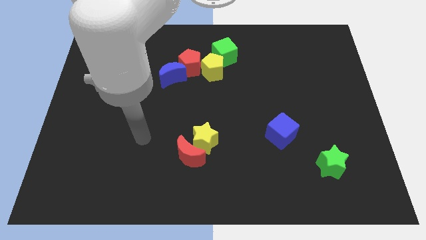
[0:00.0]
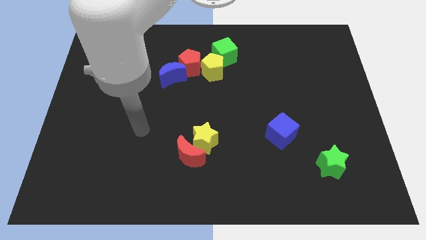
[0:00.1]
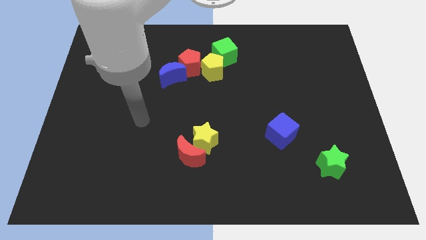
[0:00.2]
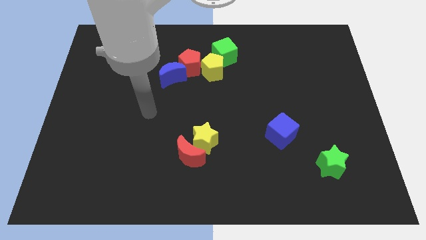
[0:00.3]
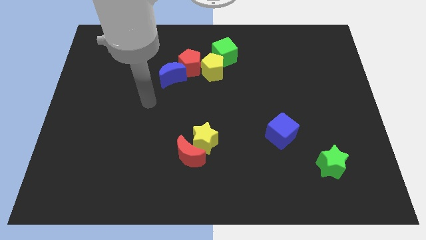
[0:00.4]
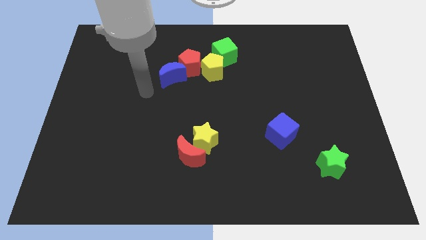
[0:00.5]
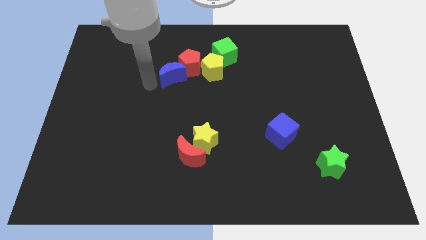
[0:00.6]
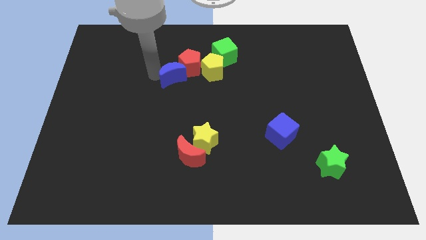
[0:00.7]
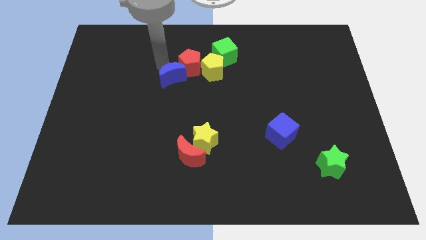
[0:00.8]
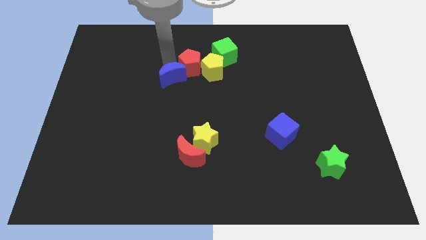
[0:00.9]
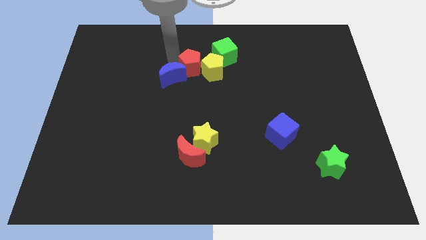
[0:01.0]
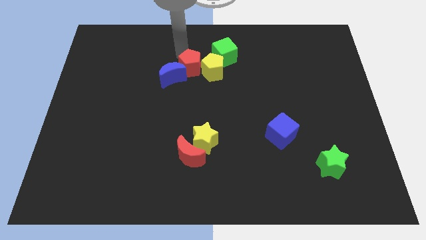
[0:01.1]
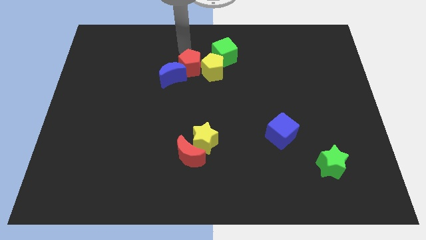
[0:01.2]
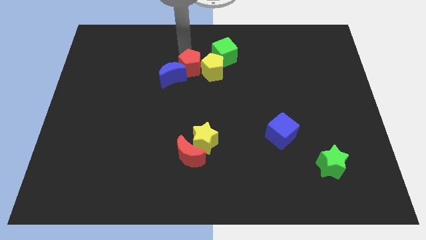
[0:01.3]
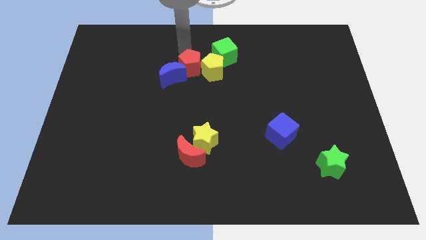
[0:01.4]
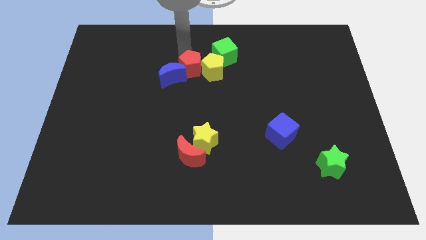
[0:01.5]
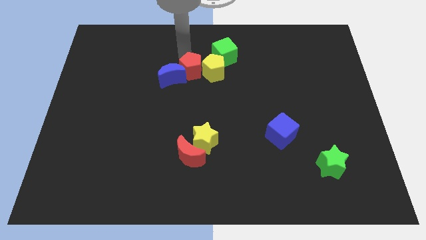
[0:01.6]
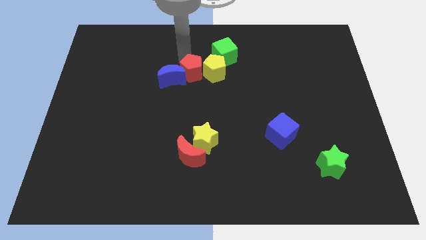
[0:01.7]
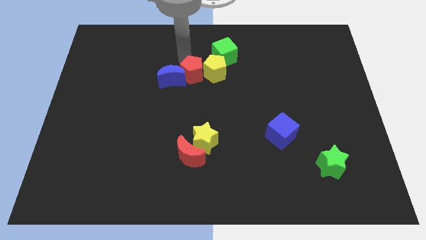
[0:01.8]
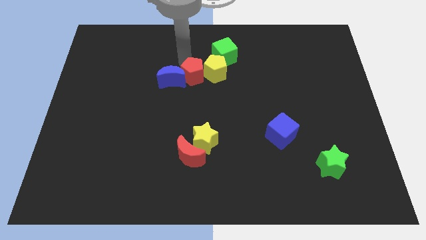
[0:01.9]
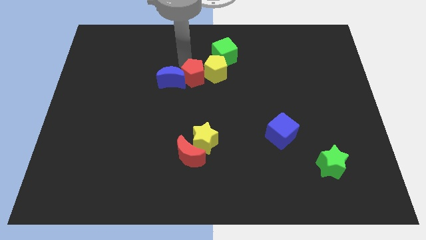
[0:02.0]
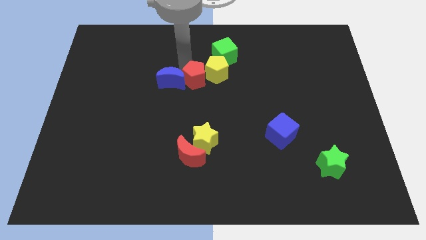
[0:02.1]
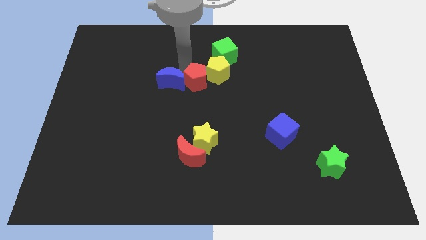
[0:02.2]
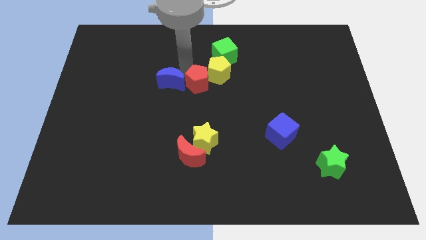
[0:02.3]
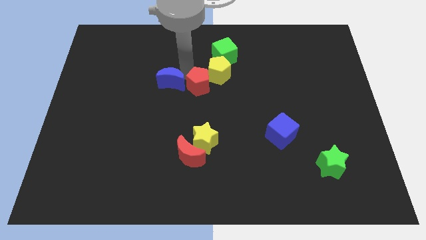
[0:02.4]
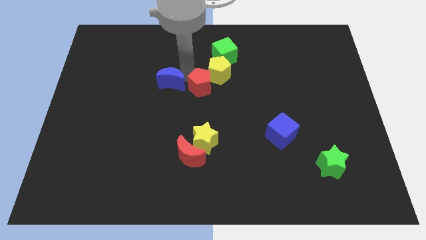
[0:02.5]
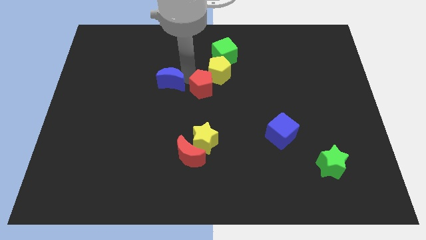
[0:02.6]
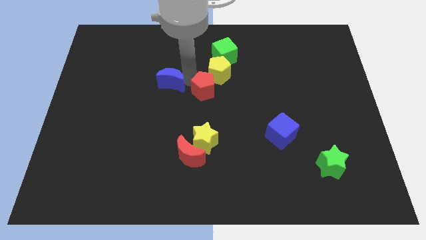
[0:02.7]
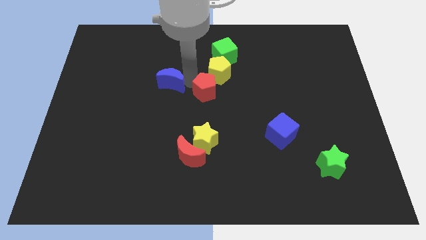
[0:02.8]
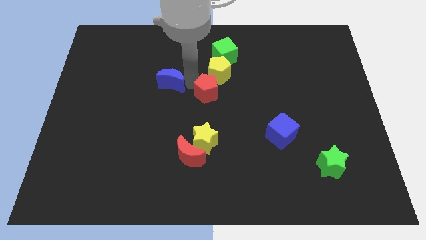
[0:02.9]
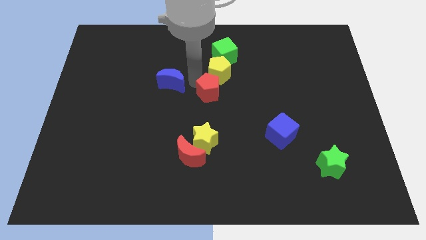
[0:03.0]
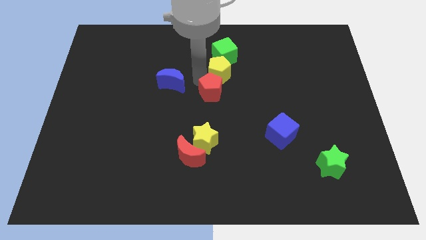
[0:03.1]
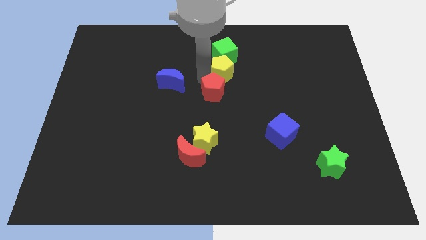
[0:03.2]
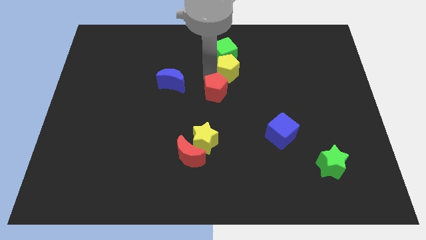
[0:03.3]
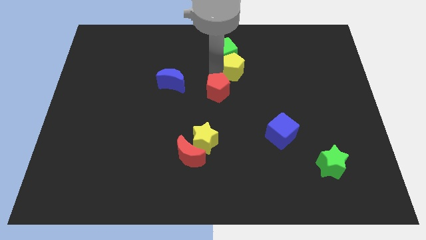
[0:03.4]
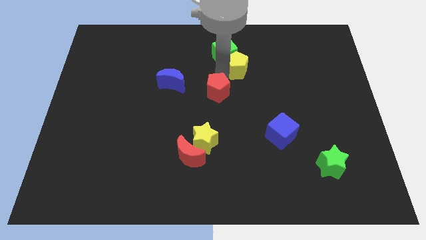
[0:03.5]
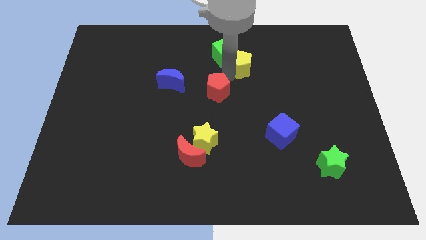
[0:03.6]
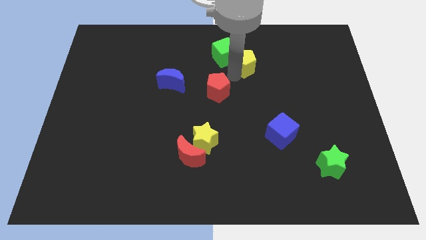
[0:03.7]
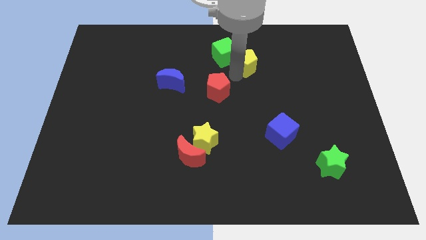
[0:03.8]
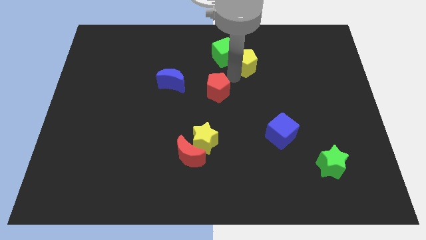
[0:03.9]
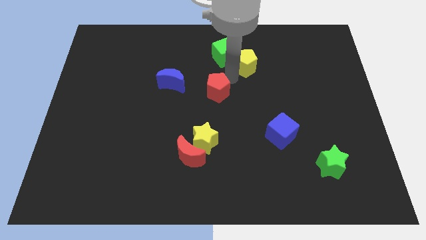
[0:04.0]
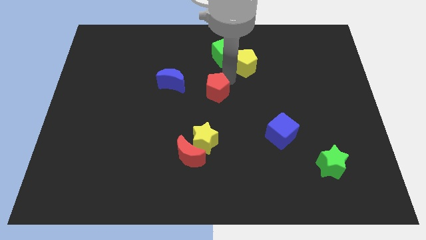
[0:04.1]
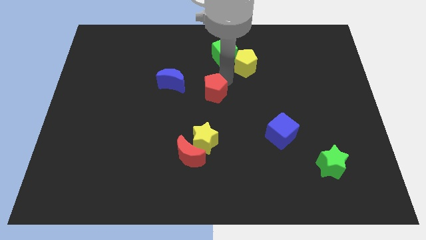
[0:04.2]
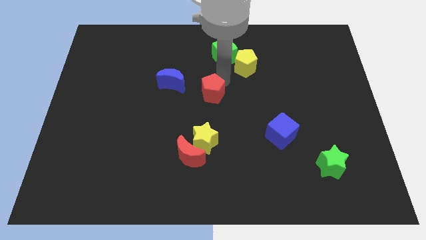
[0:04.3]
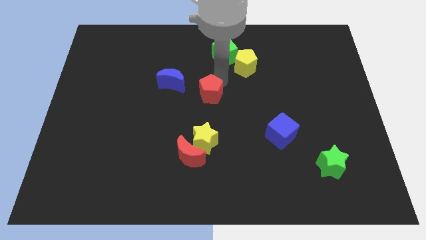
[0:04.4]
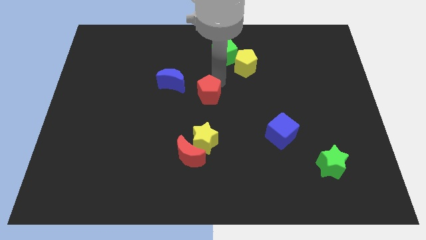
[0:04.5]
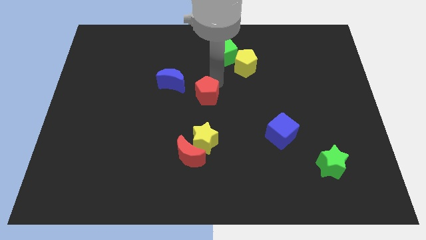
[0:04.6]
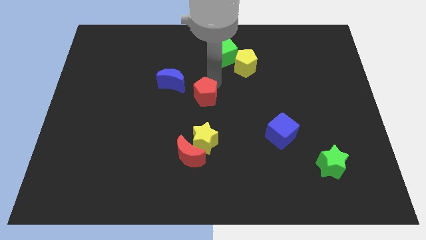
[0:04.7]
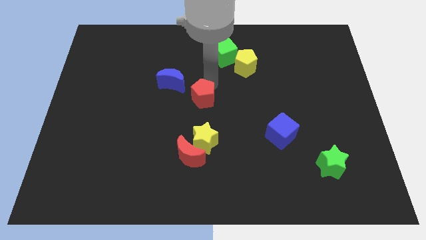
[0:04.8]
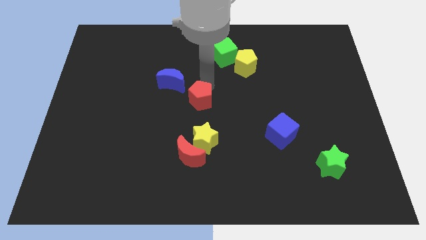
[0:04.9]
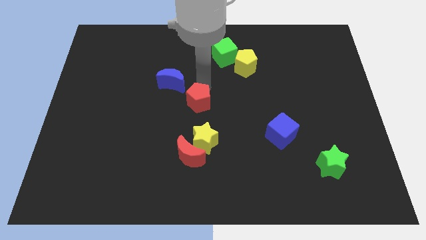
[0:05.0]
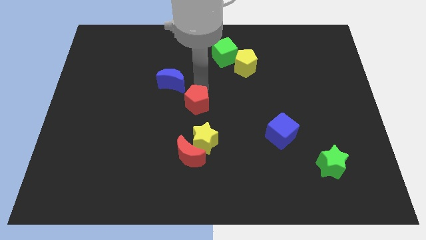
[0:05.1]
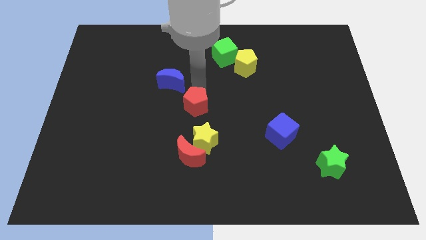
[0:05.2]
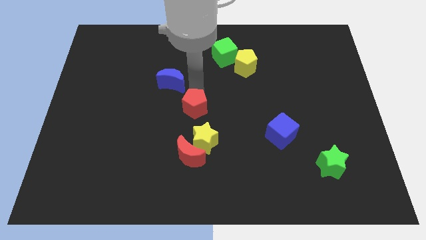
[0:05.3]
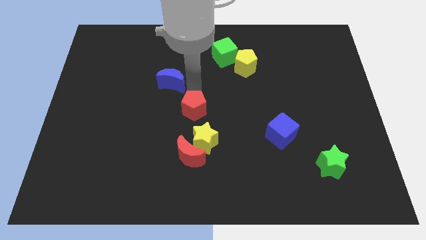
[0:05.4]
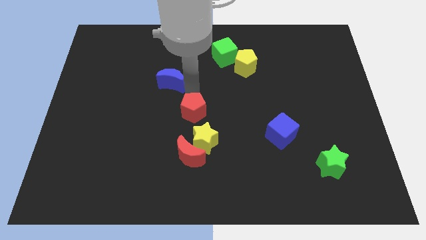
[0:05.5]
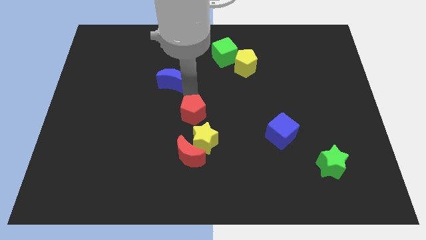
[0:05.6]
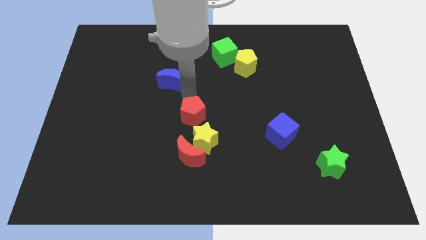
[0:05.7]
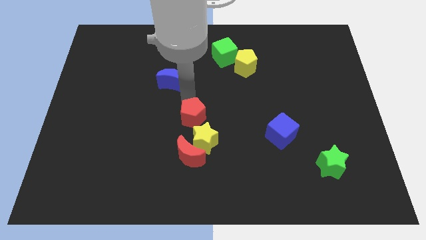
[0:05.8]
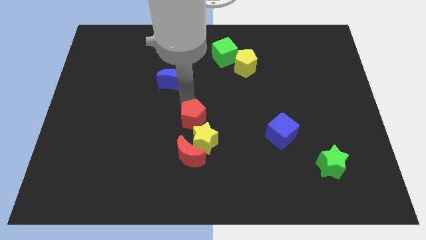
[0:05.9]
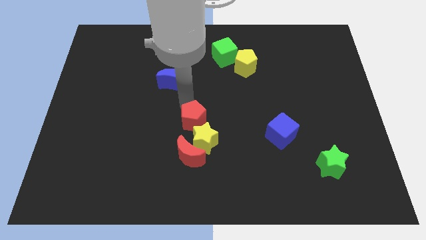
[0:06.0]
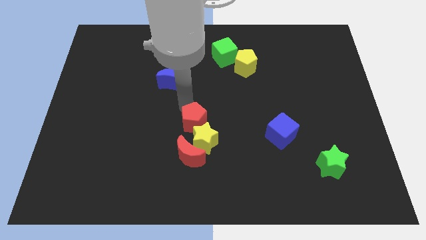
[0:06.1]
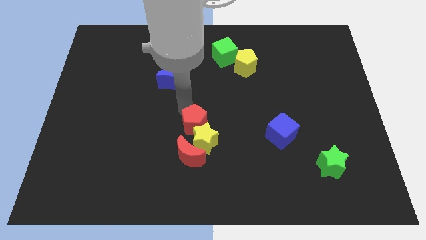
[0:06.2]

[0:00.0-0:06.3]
put the red pentagon next to the yellow star

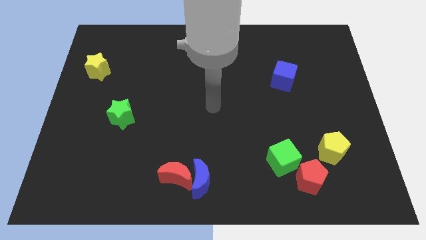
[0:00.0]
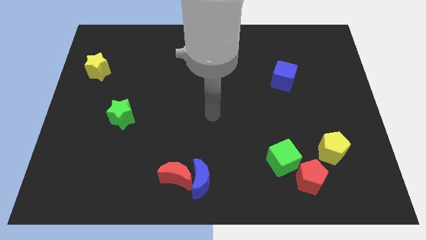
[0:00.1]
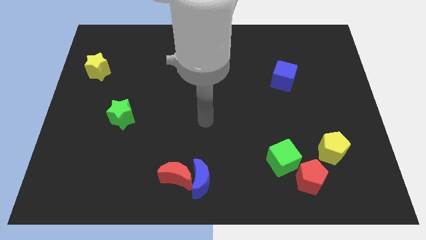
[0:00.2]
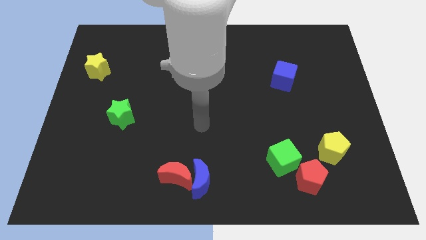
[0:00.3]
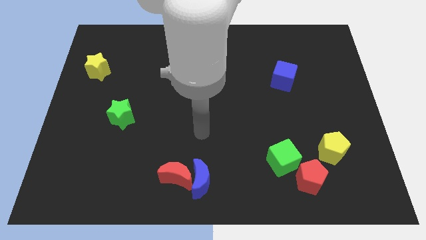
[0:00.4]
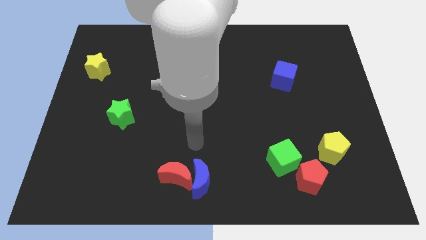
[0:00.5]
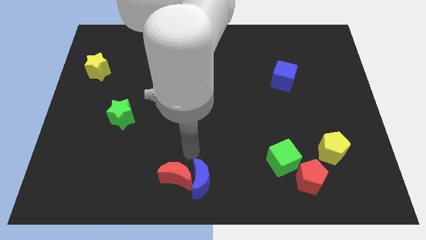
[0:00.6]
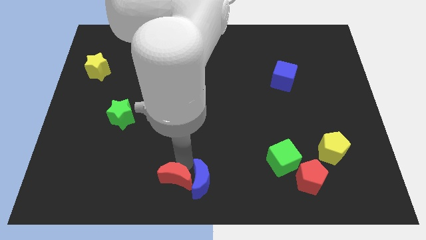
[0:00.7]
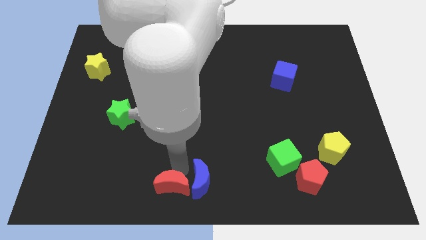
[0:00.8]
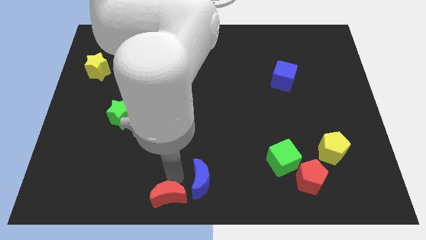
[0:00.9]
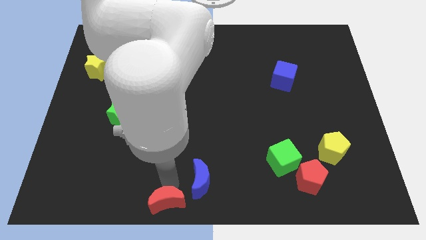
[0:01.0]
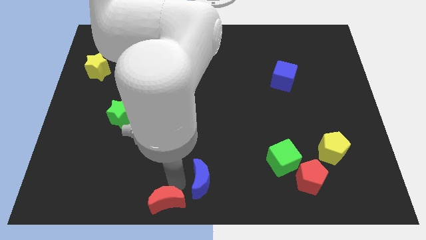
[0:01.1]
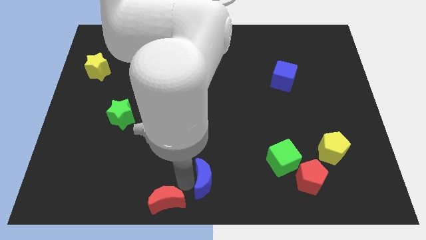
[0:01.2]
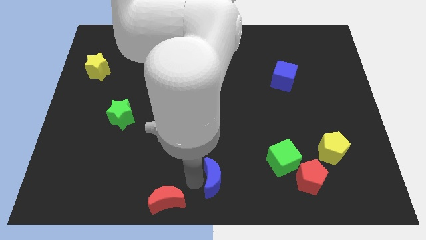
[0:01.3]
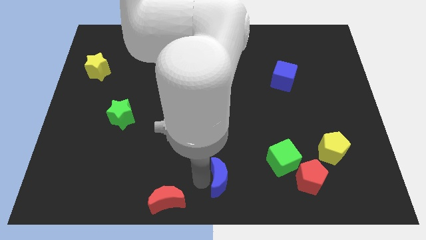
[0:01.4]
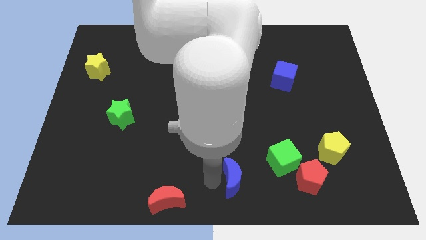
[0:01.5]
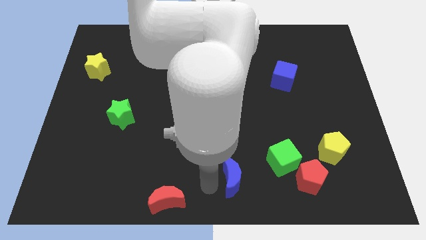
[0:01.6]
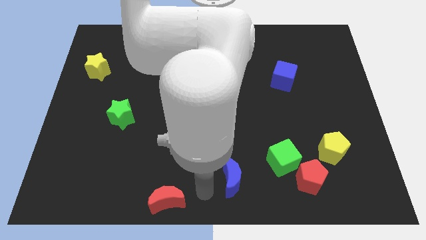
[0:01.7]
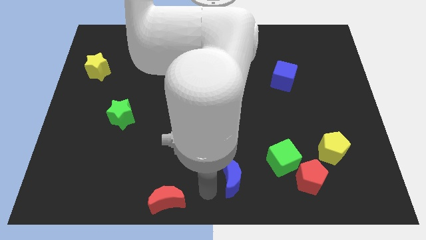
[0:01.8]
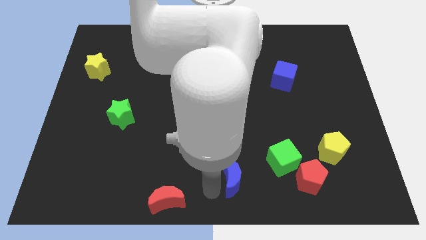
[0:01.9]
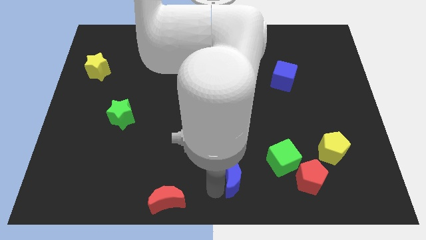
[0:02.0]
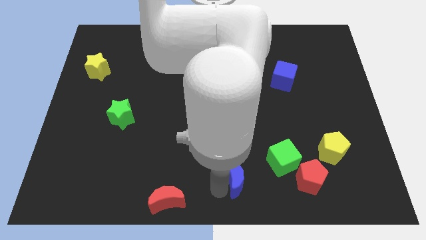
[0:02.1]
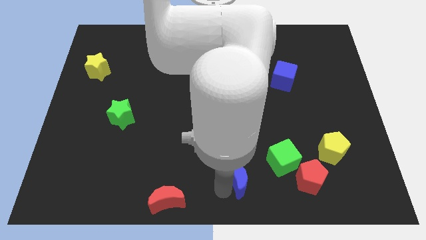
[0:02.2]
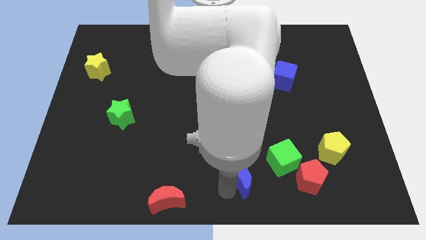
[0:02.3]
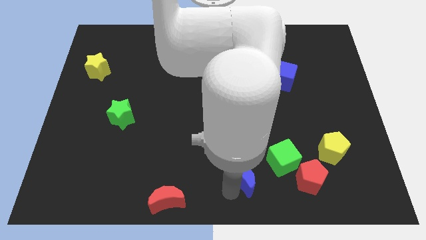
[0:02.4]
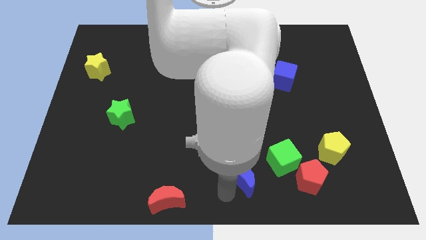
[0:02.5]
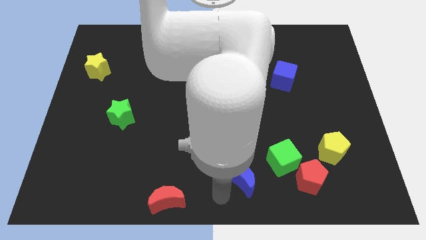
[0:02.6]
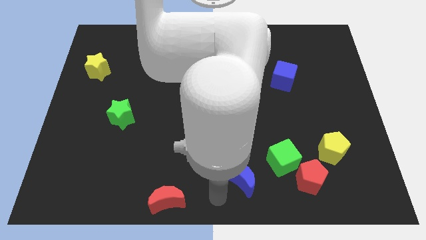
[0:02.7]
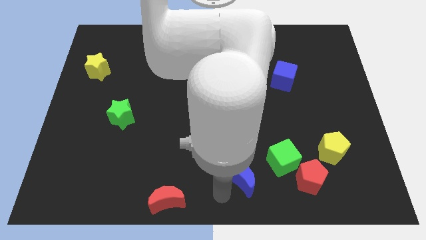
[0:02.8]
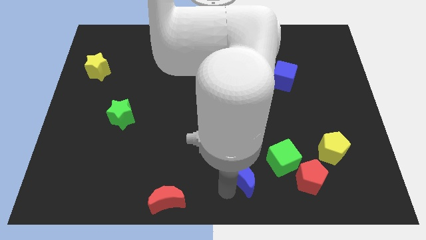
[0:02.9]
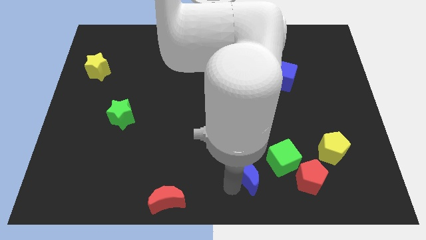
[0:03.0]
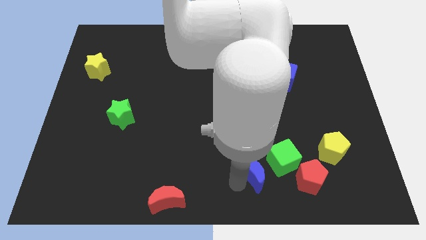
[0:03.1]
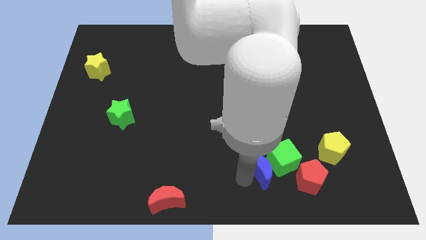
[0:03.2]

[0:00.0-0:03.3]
slide the blue moon to the green cube
